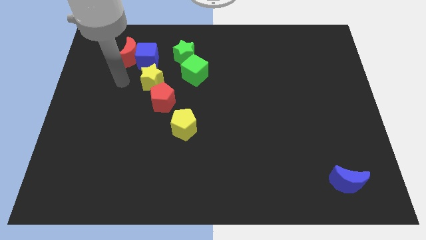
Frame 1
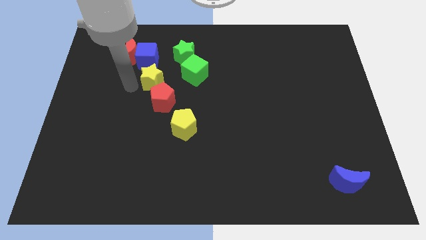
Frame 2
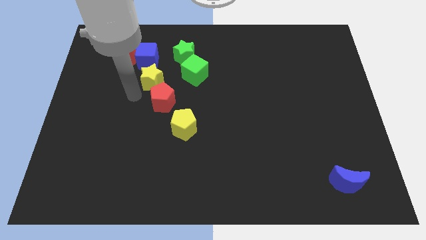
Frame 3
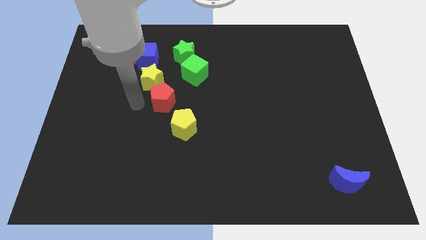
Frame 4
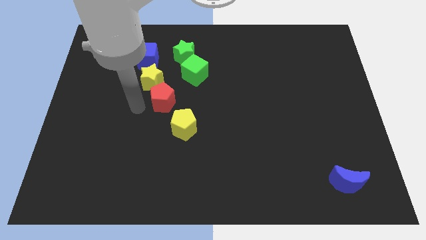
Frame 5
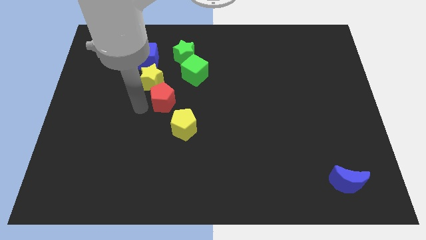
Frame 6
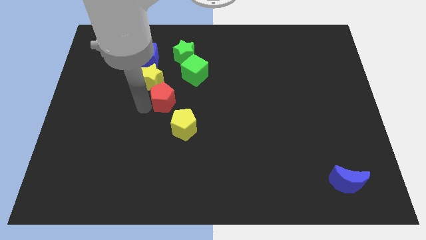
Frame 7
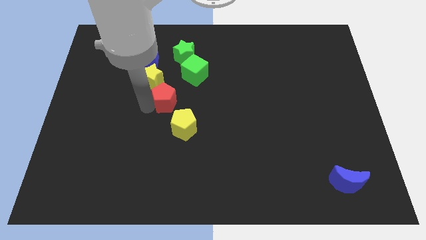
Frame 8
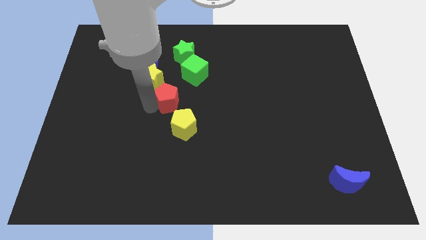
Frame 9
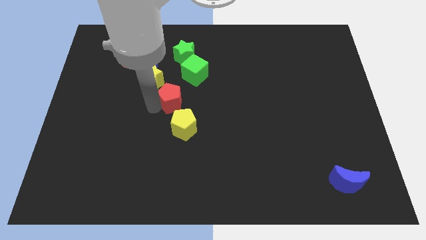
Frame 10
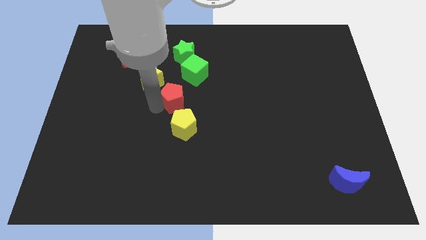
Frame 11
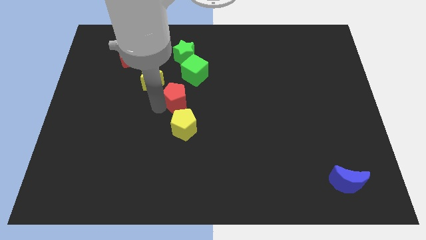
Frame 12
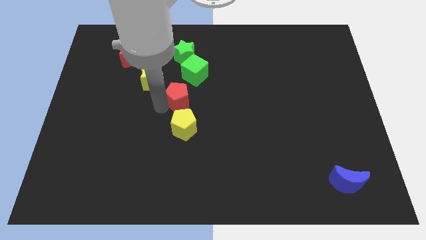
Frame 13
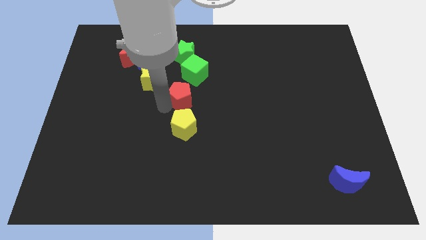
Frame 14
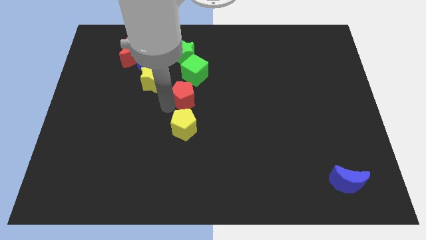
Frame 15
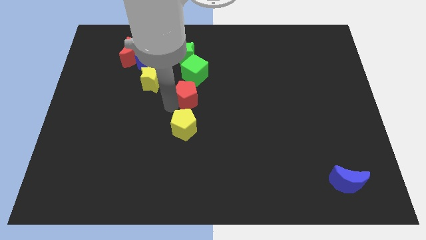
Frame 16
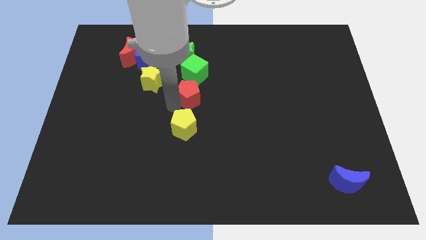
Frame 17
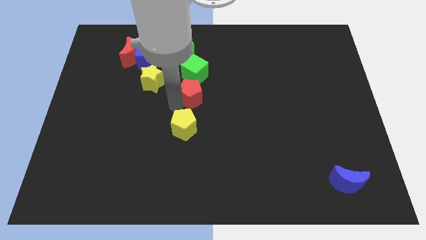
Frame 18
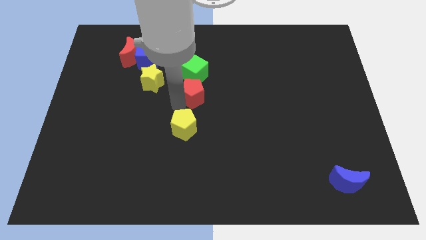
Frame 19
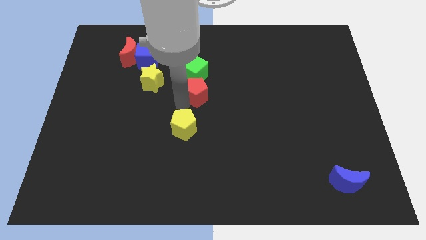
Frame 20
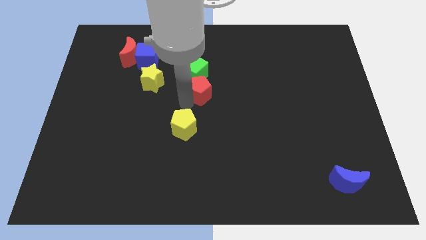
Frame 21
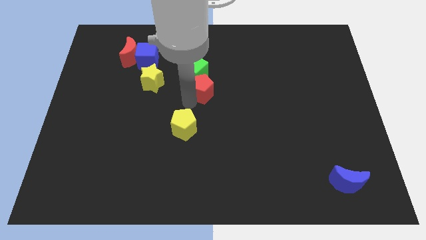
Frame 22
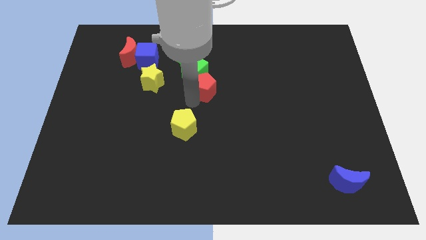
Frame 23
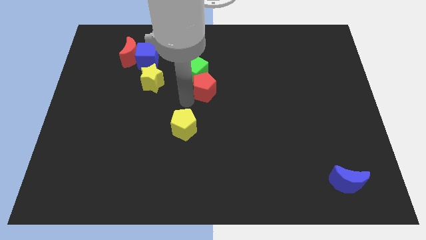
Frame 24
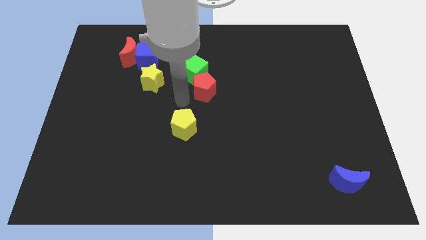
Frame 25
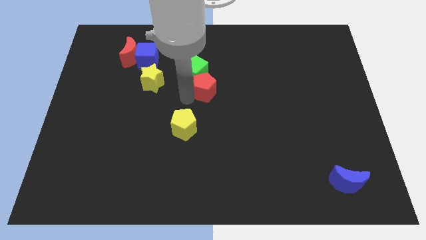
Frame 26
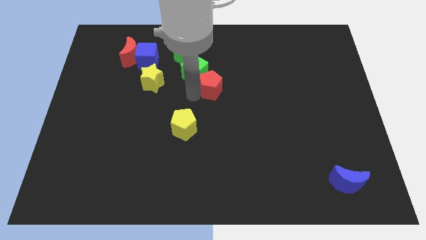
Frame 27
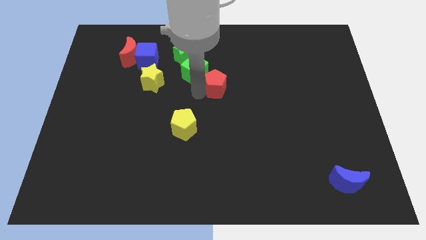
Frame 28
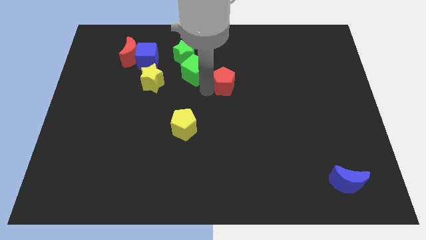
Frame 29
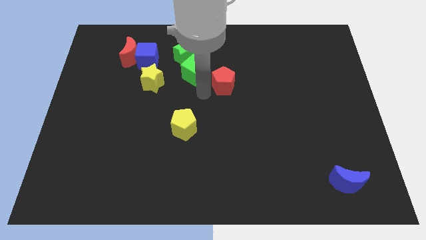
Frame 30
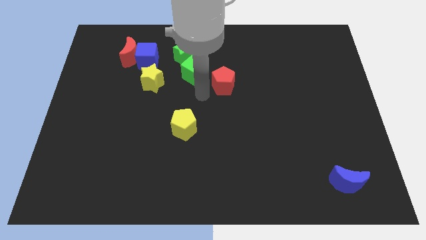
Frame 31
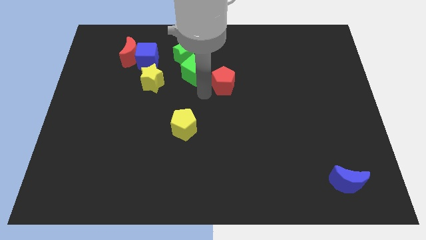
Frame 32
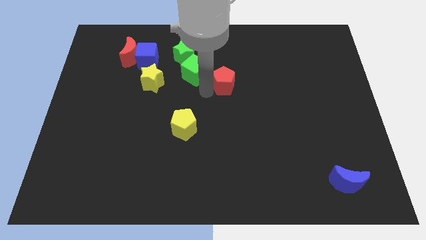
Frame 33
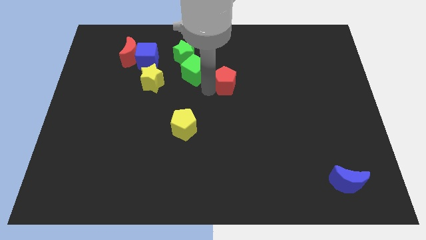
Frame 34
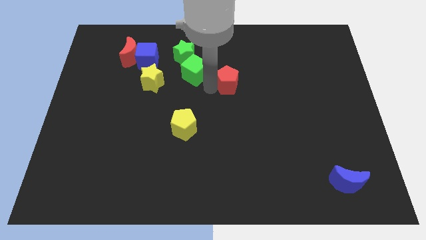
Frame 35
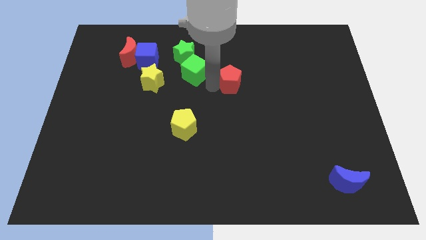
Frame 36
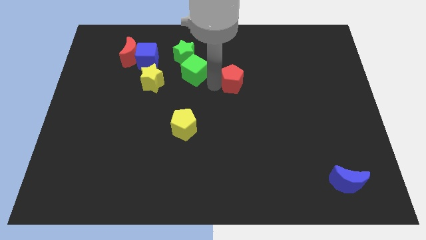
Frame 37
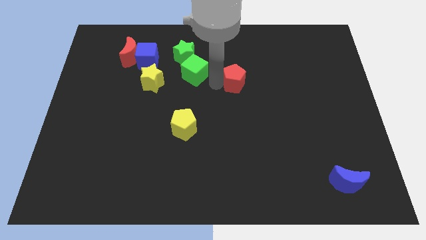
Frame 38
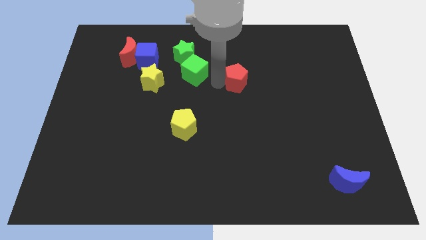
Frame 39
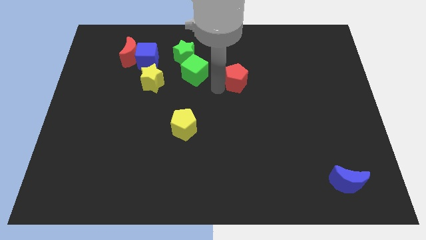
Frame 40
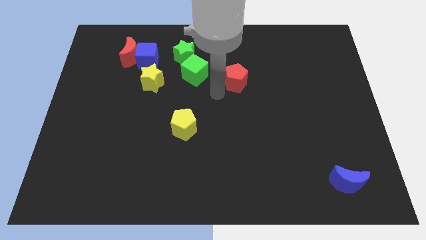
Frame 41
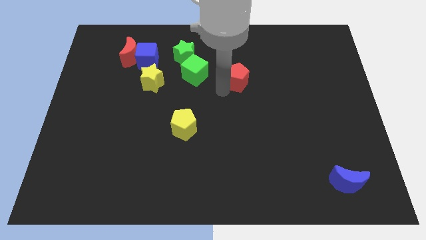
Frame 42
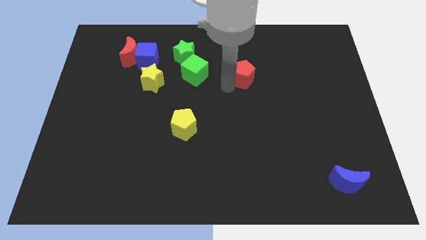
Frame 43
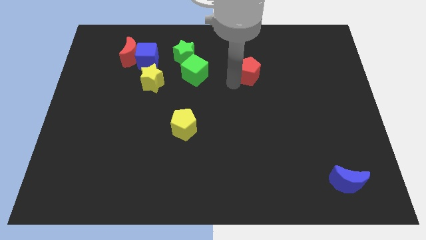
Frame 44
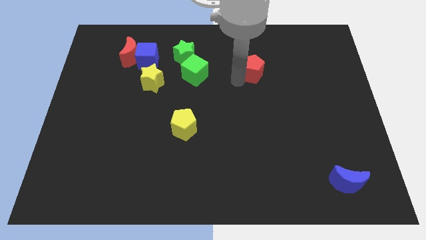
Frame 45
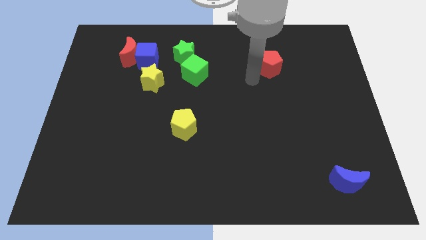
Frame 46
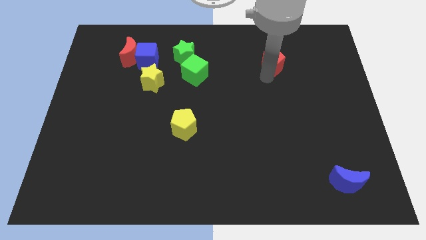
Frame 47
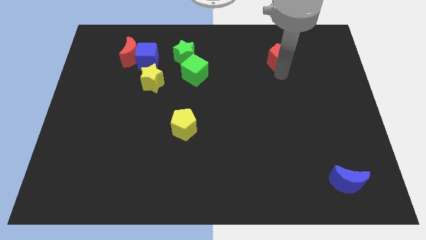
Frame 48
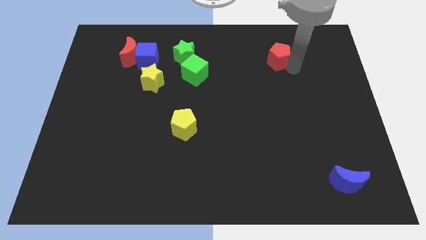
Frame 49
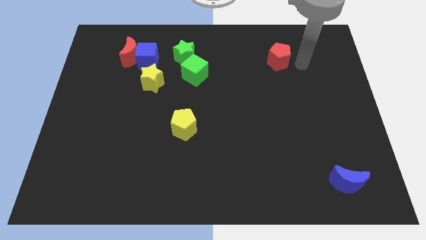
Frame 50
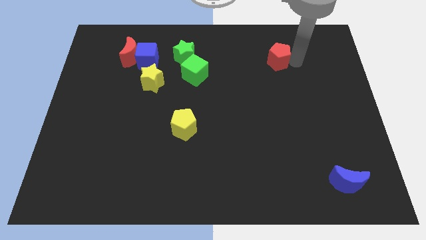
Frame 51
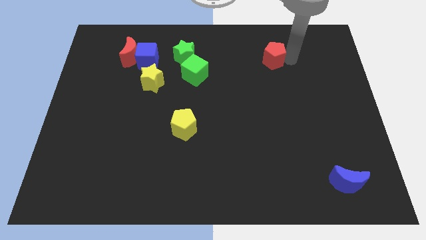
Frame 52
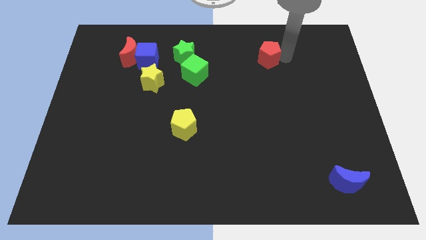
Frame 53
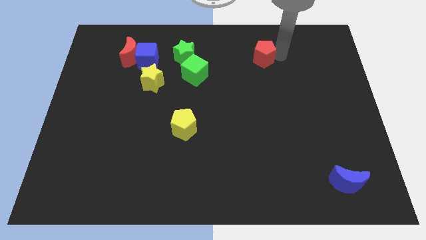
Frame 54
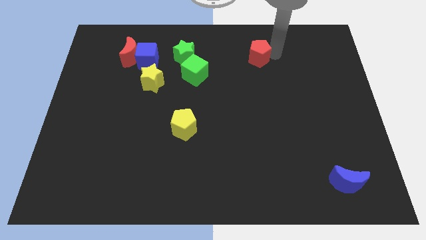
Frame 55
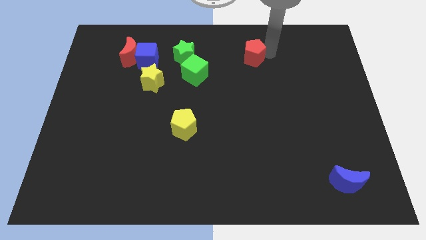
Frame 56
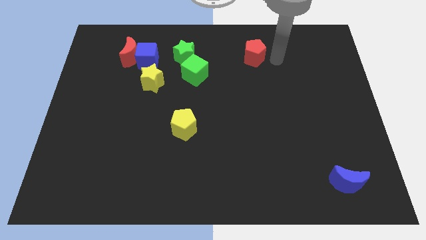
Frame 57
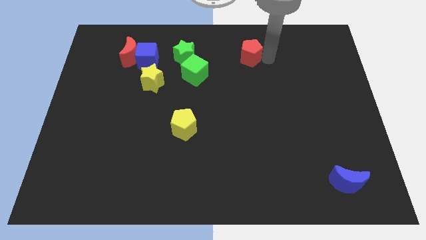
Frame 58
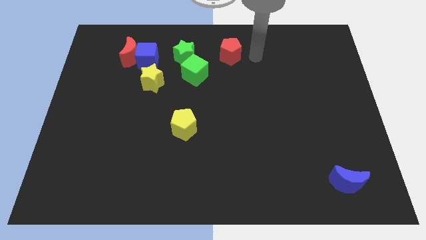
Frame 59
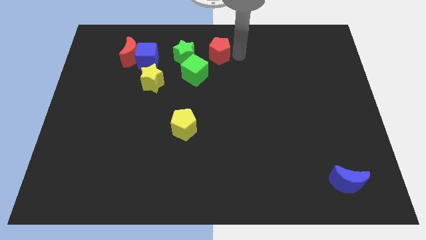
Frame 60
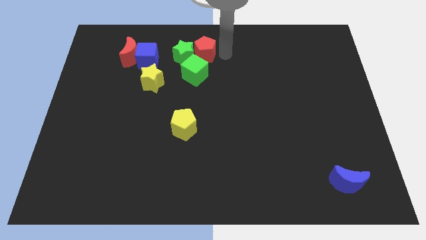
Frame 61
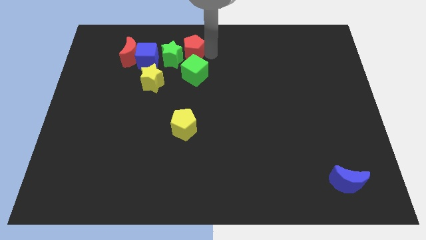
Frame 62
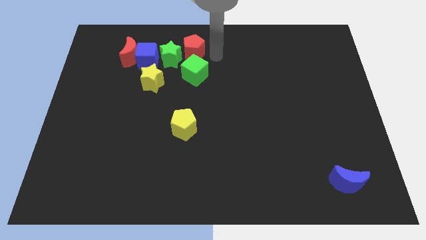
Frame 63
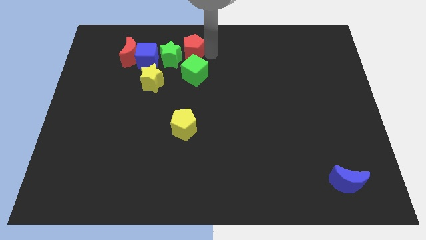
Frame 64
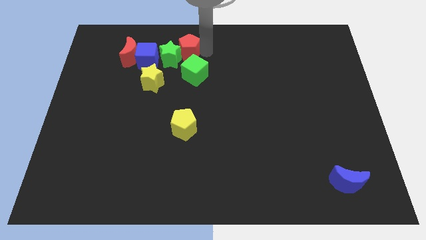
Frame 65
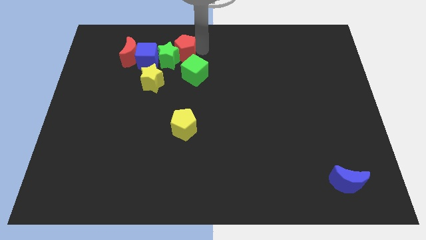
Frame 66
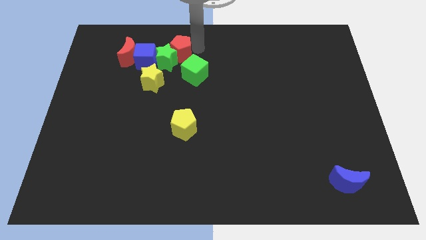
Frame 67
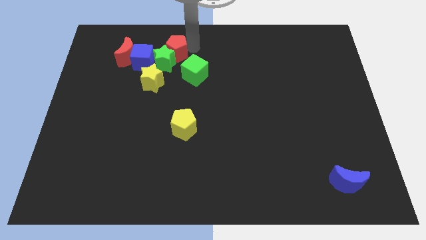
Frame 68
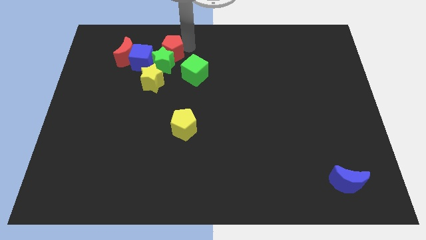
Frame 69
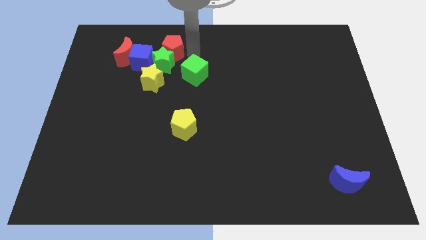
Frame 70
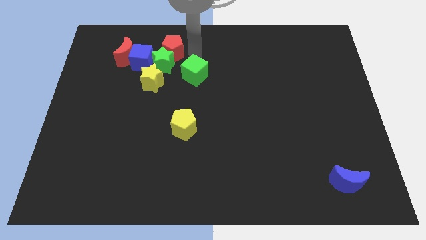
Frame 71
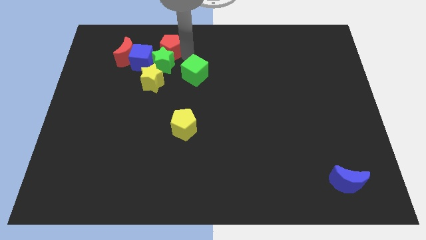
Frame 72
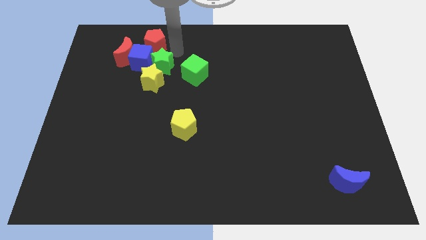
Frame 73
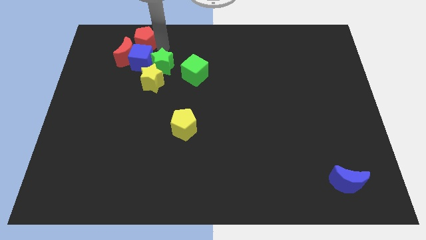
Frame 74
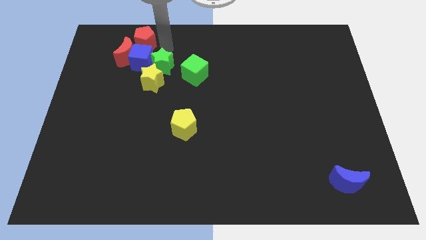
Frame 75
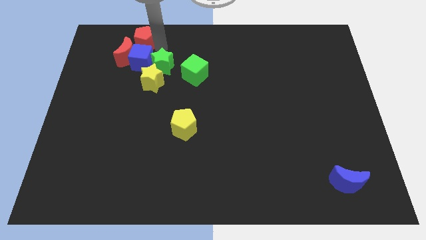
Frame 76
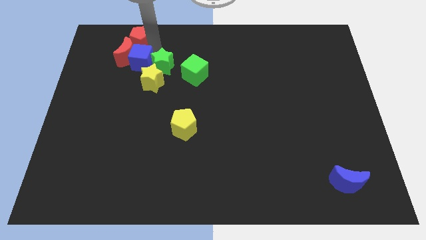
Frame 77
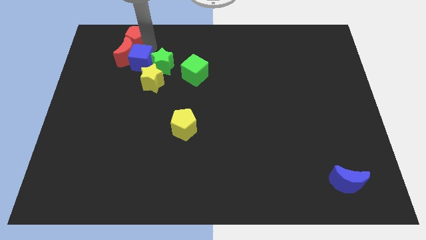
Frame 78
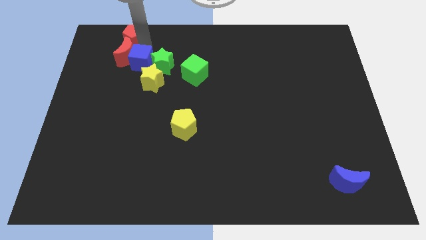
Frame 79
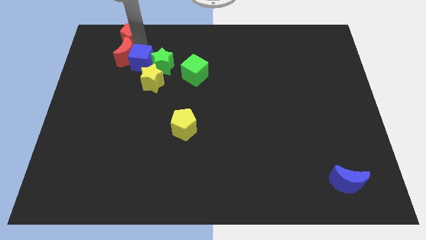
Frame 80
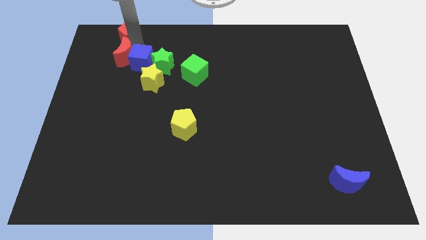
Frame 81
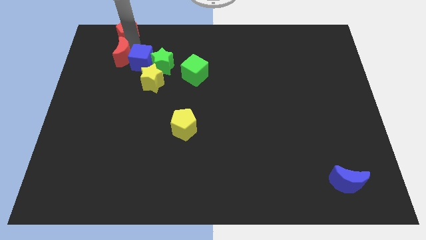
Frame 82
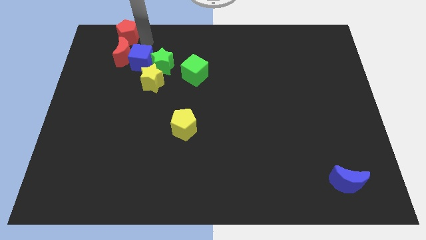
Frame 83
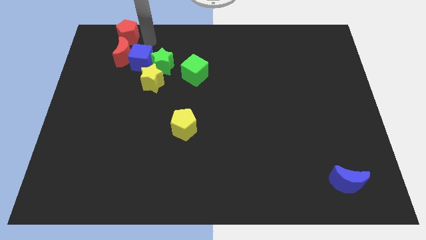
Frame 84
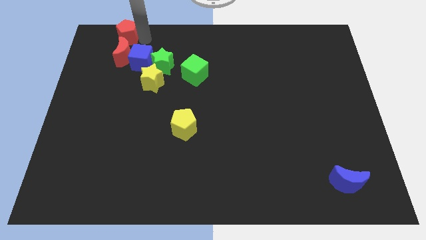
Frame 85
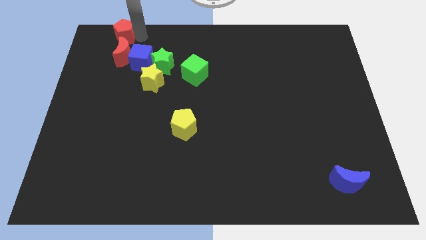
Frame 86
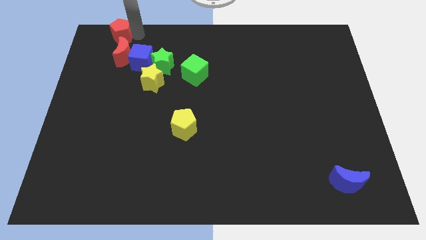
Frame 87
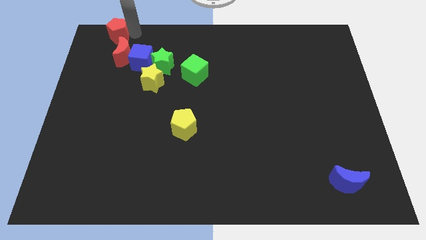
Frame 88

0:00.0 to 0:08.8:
put the red pentagon to the top left of the board
